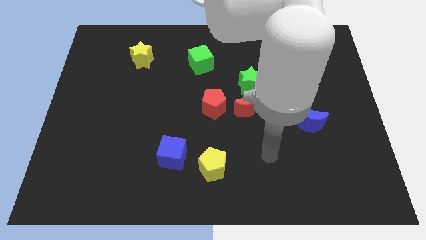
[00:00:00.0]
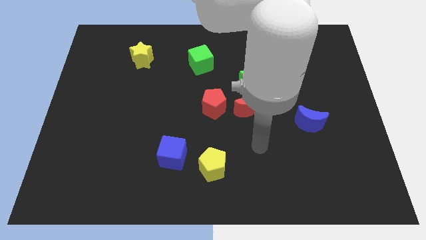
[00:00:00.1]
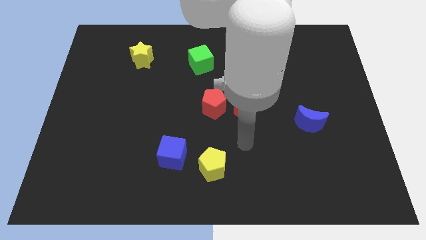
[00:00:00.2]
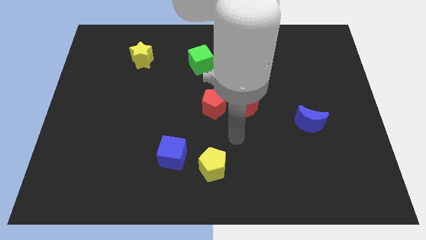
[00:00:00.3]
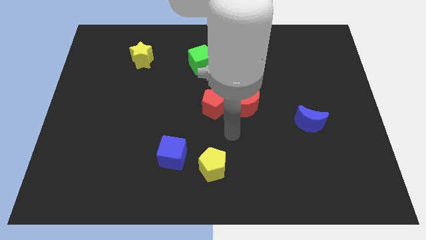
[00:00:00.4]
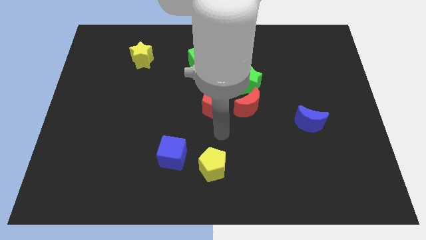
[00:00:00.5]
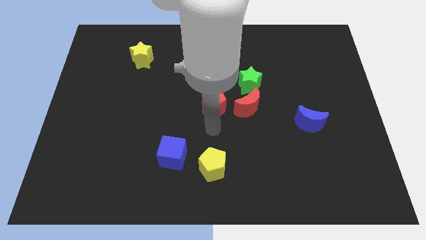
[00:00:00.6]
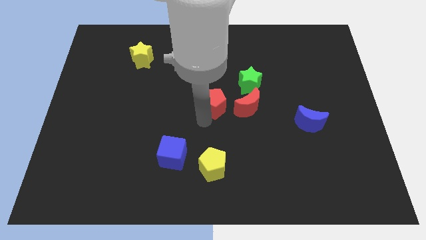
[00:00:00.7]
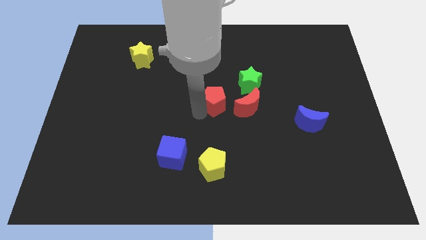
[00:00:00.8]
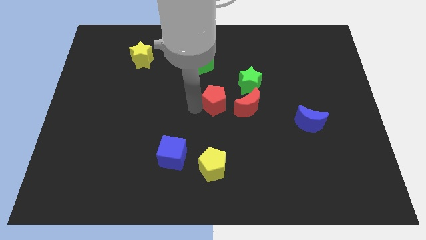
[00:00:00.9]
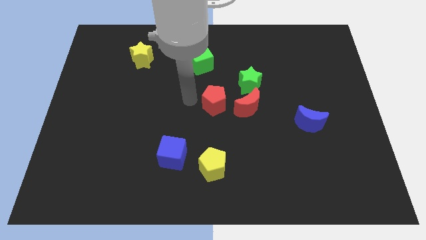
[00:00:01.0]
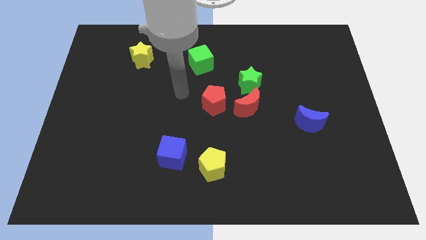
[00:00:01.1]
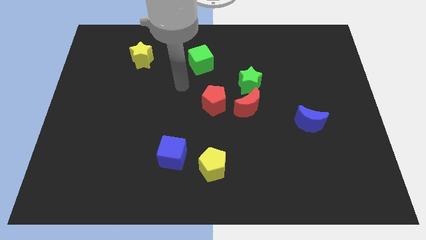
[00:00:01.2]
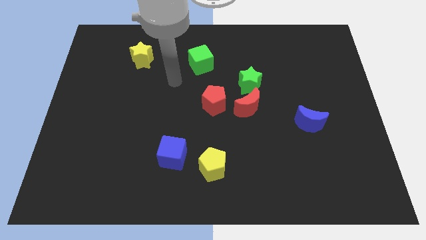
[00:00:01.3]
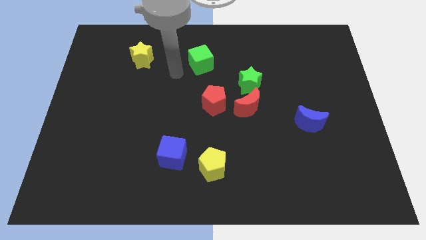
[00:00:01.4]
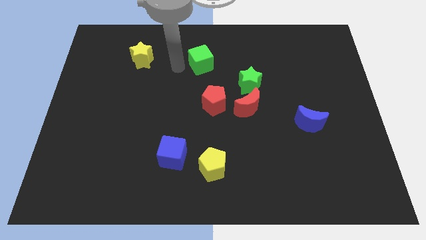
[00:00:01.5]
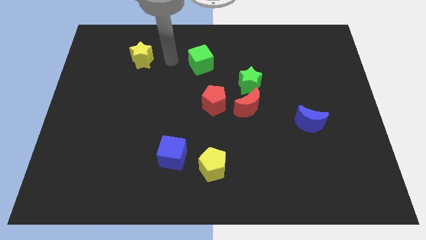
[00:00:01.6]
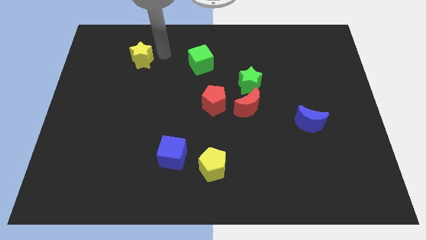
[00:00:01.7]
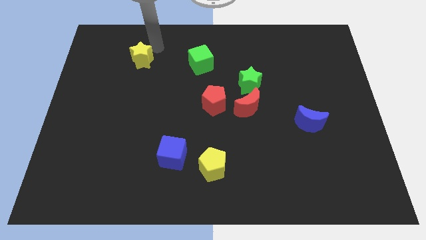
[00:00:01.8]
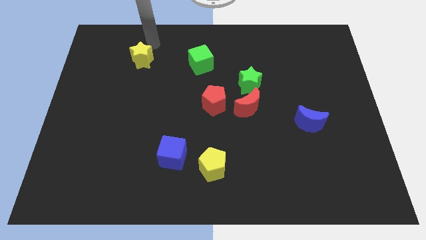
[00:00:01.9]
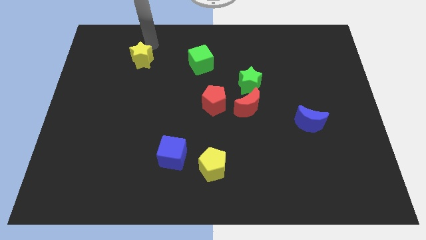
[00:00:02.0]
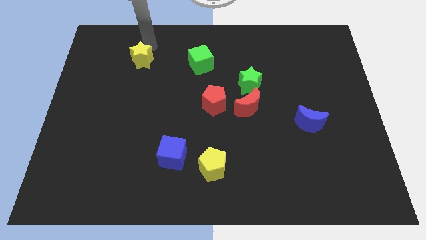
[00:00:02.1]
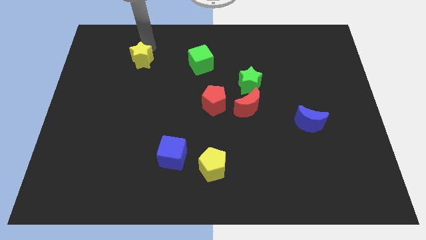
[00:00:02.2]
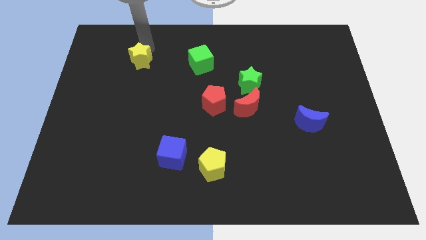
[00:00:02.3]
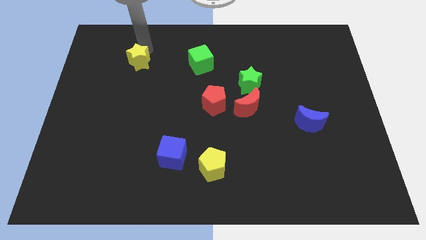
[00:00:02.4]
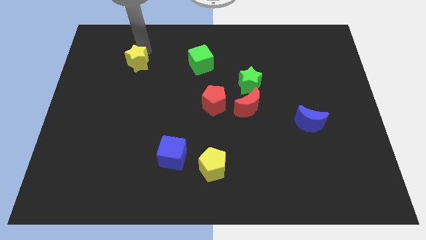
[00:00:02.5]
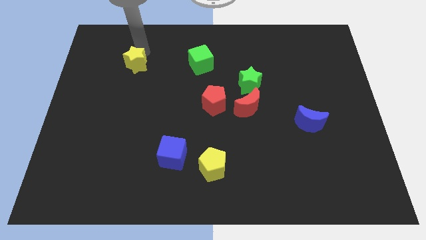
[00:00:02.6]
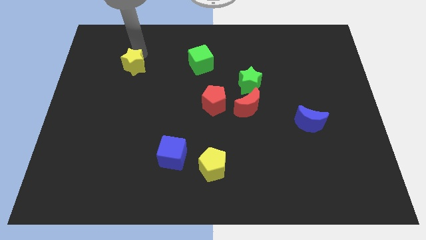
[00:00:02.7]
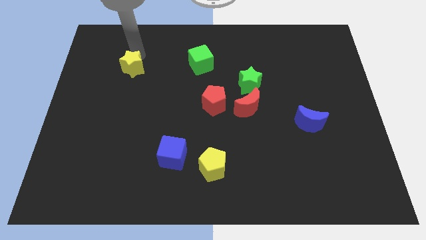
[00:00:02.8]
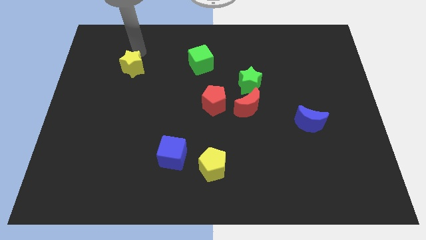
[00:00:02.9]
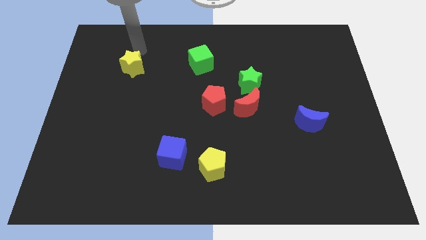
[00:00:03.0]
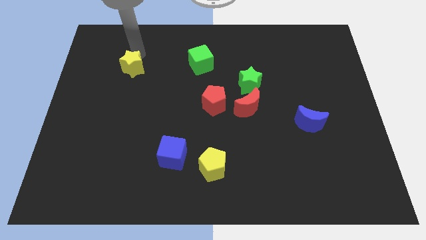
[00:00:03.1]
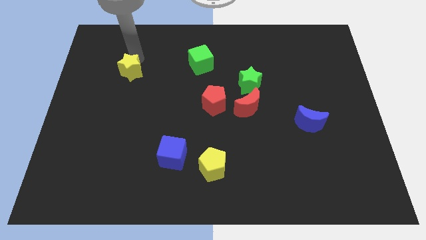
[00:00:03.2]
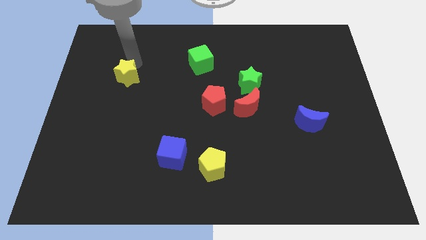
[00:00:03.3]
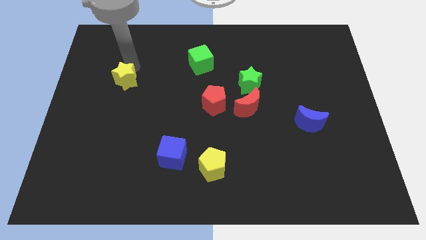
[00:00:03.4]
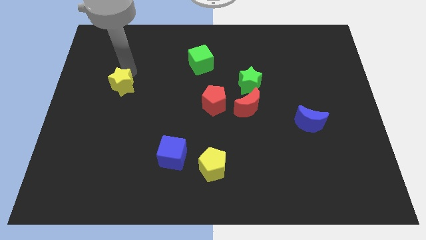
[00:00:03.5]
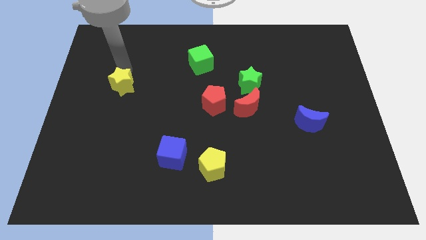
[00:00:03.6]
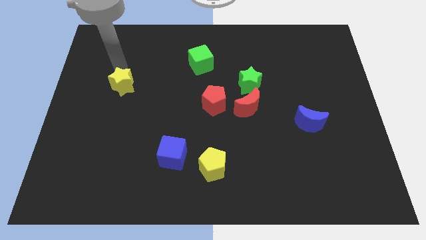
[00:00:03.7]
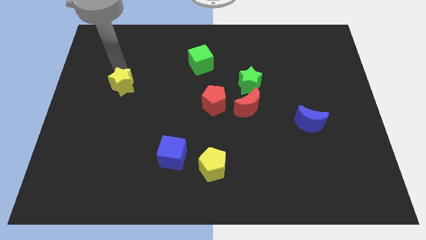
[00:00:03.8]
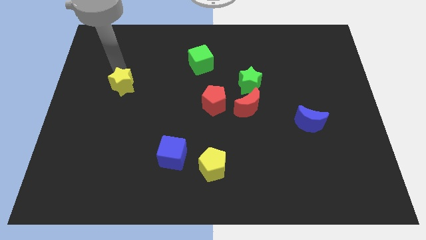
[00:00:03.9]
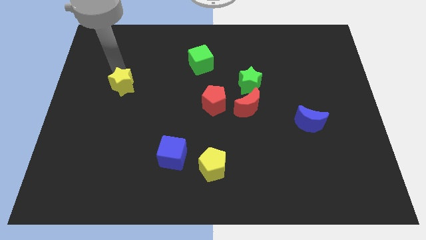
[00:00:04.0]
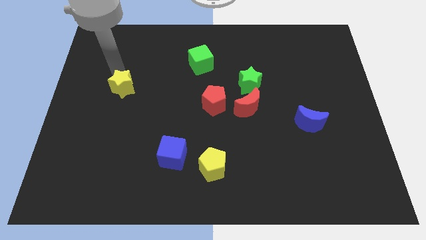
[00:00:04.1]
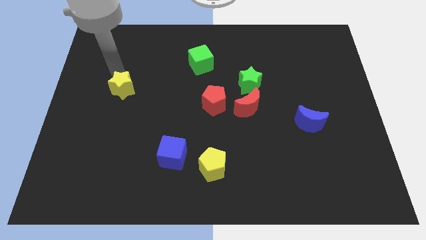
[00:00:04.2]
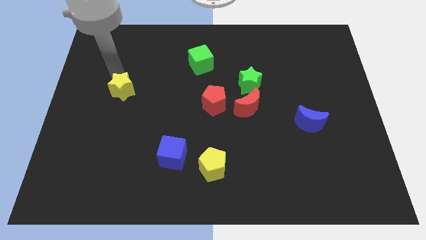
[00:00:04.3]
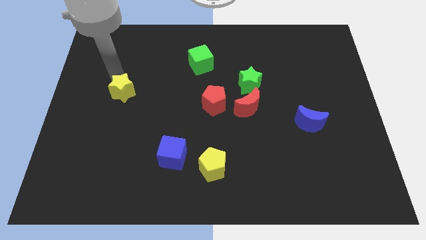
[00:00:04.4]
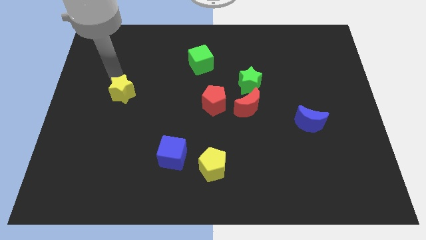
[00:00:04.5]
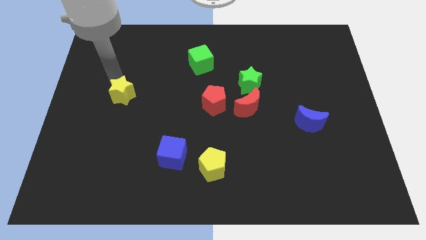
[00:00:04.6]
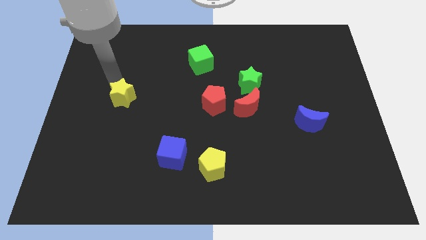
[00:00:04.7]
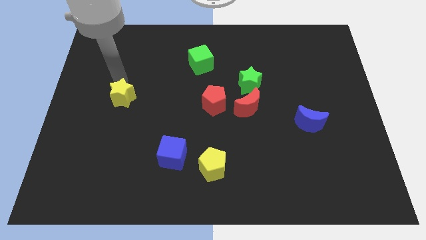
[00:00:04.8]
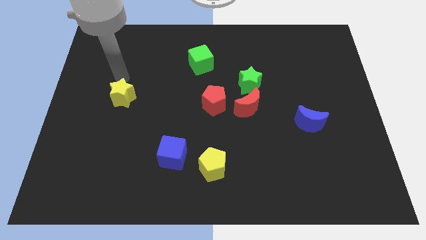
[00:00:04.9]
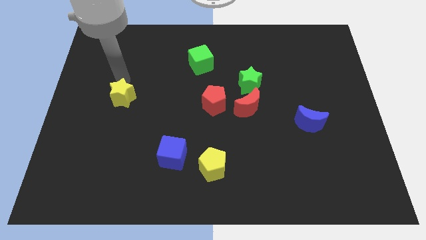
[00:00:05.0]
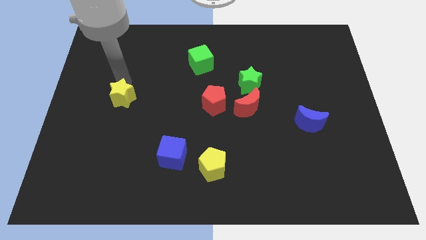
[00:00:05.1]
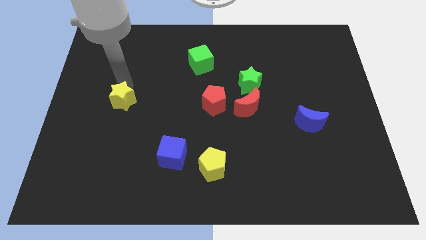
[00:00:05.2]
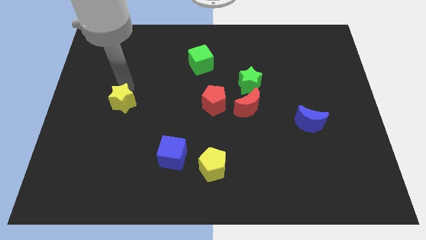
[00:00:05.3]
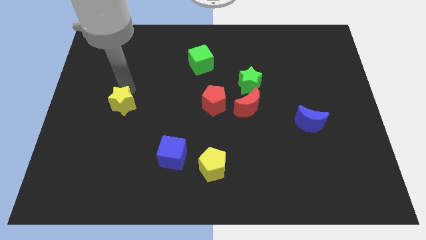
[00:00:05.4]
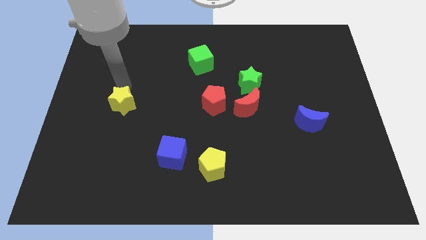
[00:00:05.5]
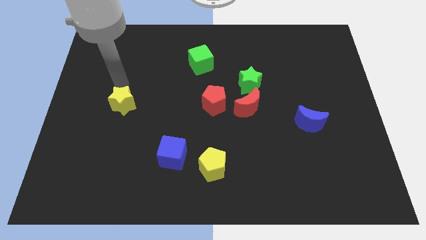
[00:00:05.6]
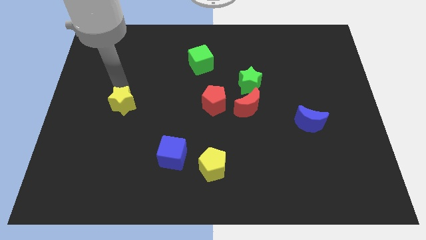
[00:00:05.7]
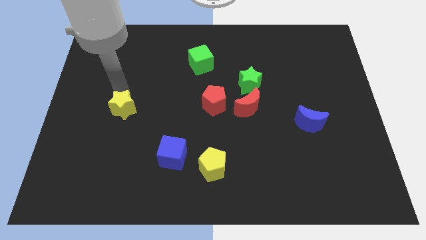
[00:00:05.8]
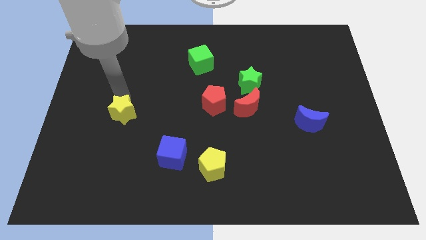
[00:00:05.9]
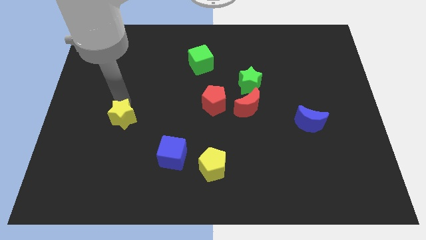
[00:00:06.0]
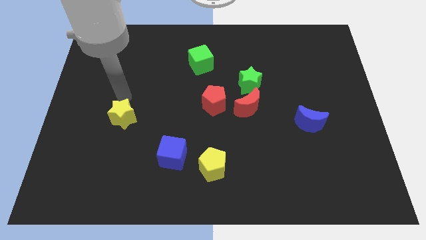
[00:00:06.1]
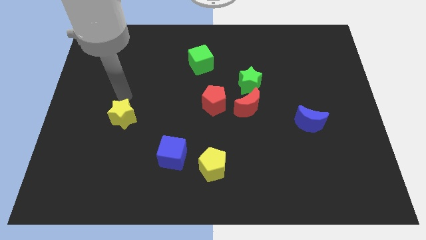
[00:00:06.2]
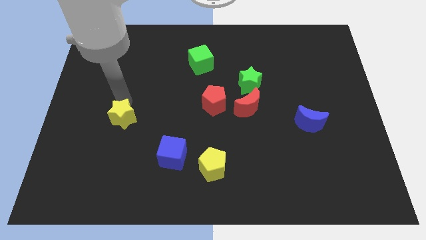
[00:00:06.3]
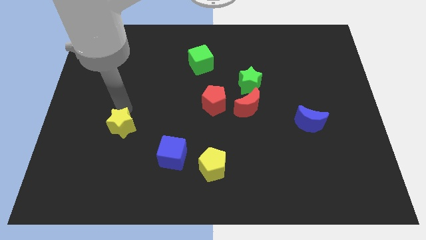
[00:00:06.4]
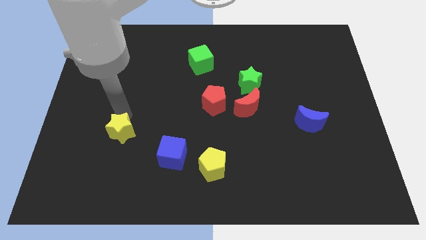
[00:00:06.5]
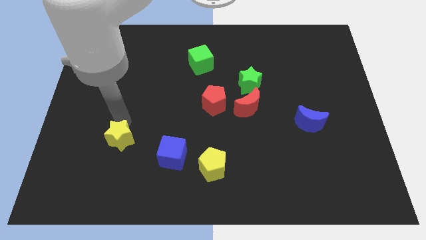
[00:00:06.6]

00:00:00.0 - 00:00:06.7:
slide the yellow star to the left of the blue cube

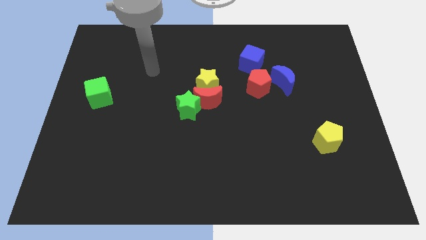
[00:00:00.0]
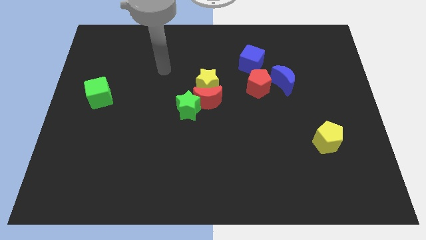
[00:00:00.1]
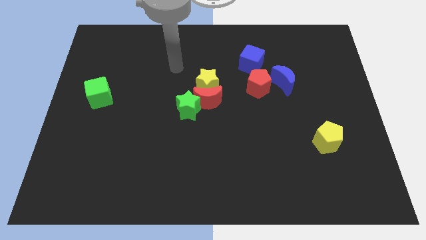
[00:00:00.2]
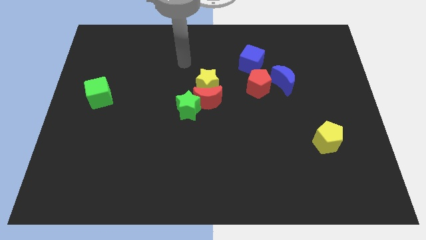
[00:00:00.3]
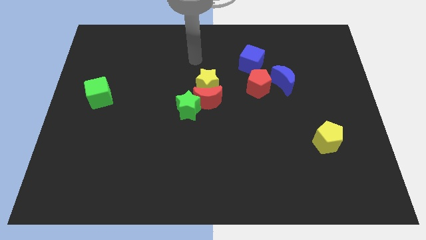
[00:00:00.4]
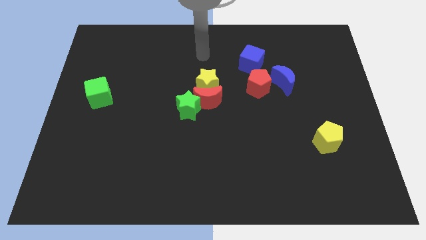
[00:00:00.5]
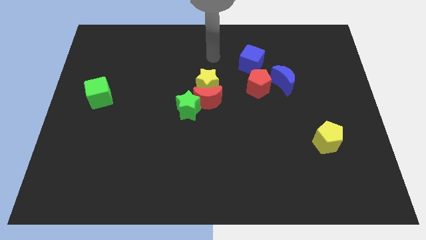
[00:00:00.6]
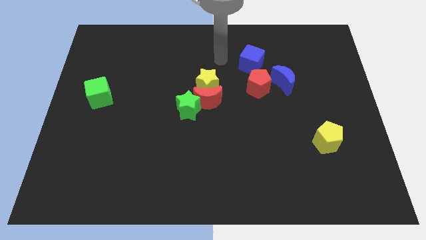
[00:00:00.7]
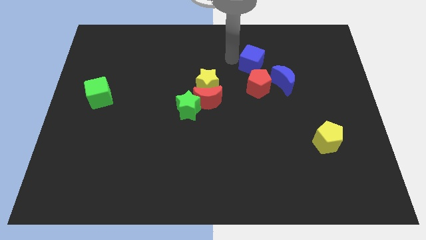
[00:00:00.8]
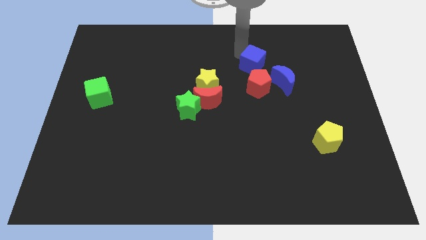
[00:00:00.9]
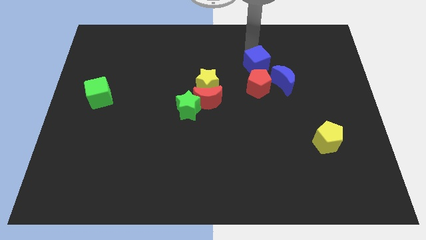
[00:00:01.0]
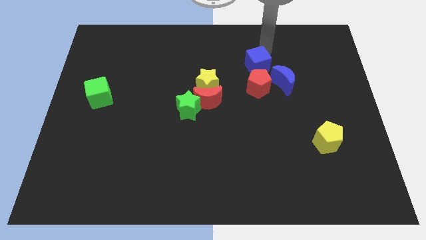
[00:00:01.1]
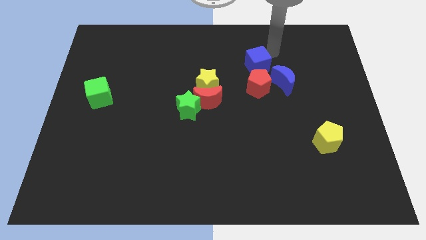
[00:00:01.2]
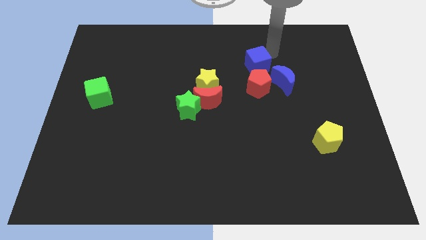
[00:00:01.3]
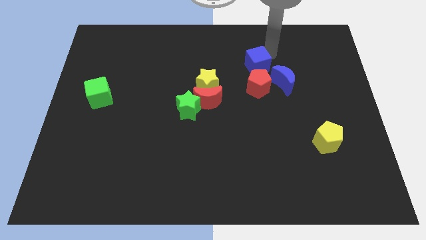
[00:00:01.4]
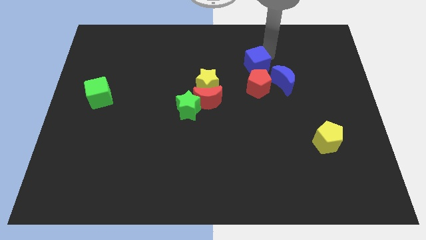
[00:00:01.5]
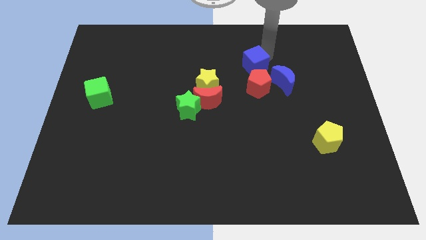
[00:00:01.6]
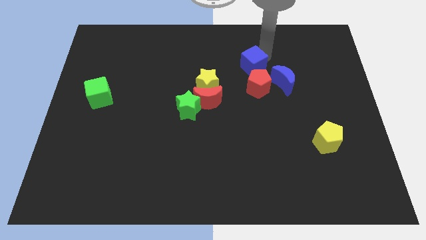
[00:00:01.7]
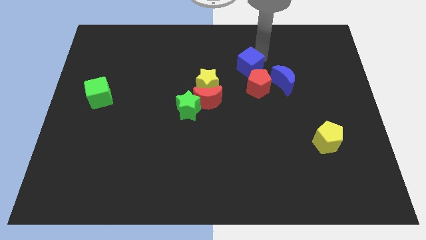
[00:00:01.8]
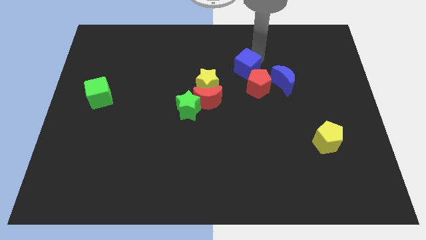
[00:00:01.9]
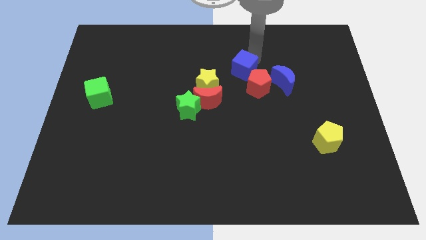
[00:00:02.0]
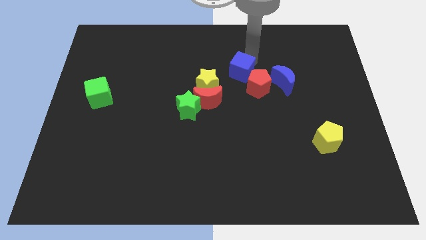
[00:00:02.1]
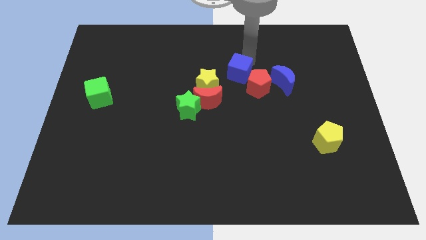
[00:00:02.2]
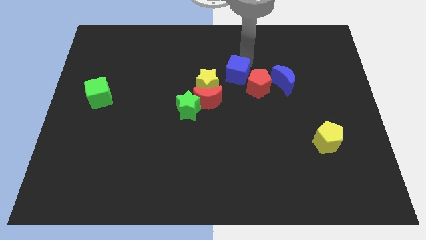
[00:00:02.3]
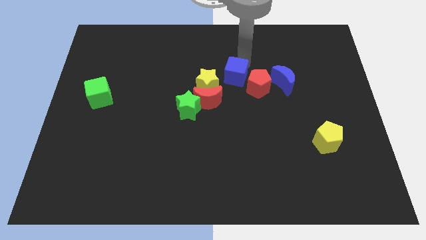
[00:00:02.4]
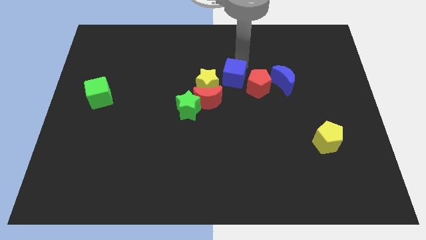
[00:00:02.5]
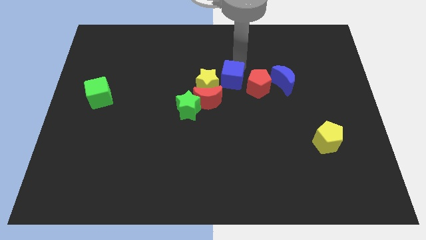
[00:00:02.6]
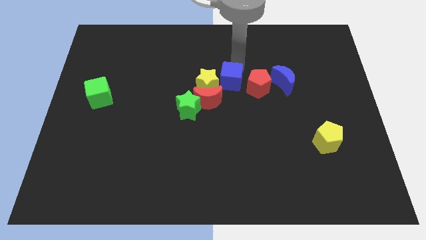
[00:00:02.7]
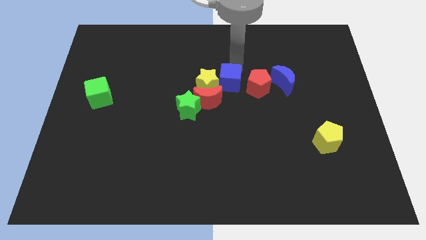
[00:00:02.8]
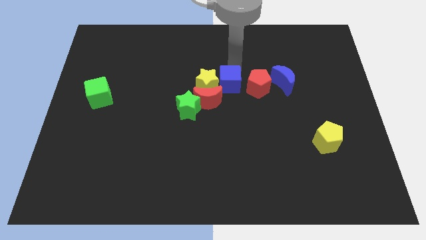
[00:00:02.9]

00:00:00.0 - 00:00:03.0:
put the blue cube diagonally down and to the right of the yellow star
